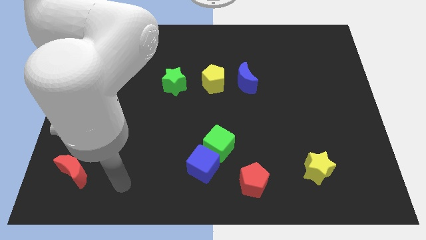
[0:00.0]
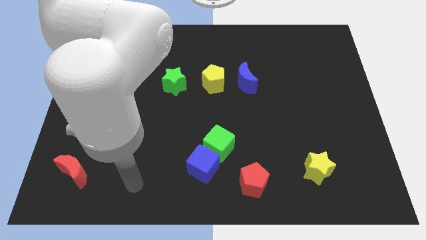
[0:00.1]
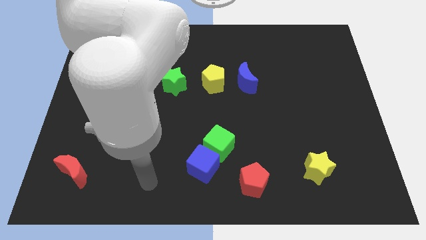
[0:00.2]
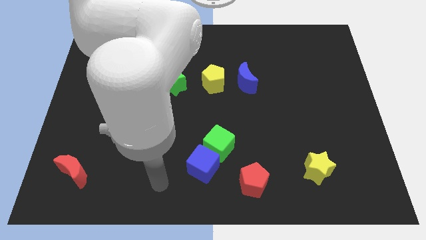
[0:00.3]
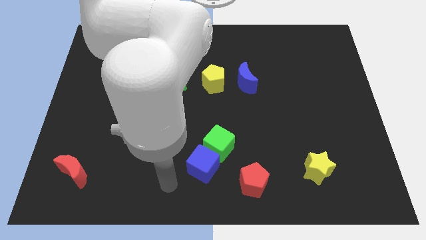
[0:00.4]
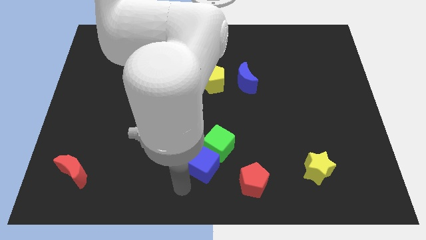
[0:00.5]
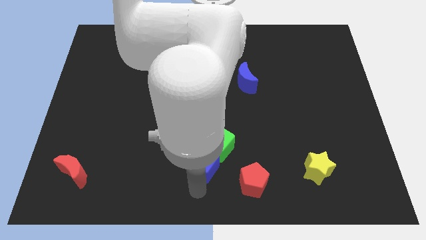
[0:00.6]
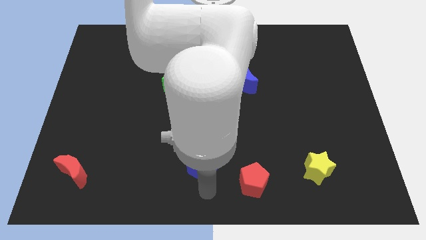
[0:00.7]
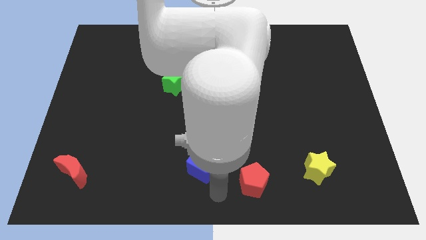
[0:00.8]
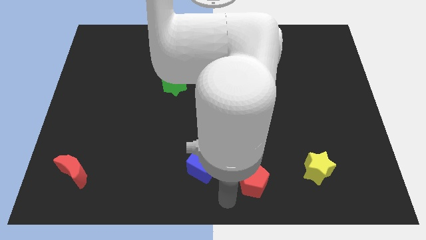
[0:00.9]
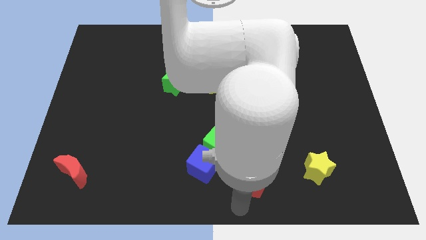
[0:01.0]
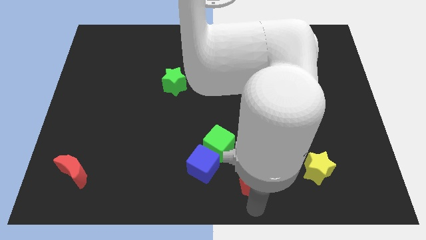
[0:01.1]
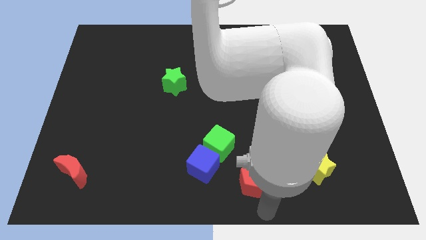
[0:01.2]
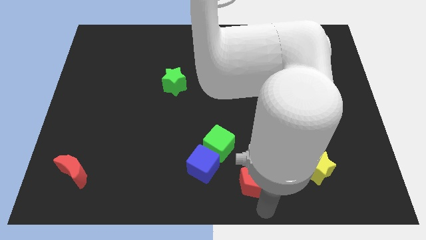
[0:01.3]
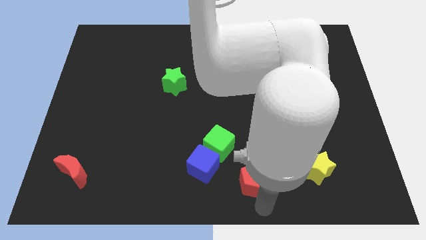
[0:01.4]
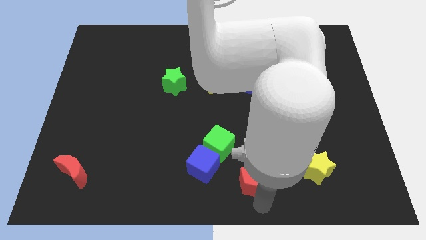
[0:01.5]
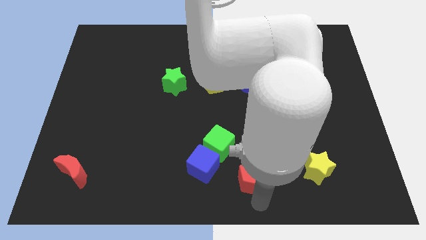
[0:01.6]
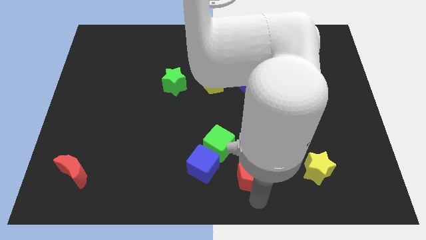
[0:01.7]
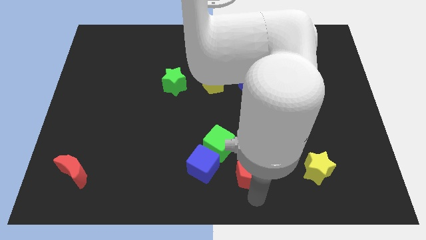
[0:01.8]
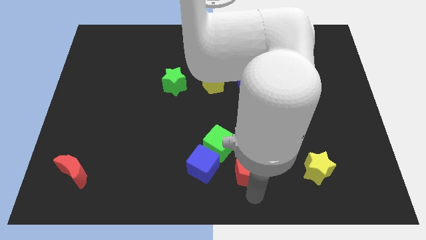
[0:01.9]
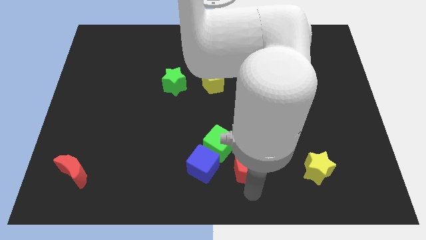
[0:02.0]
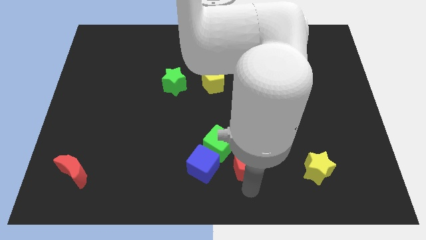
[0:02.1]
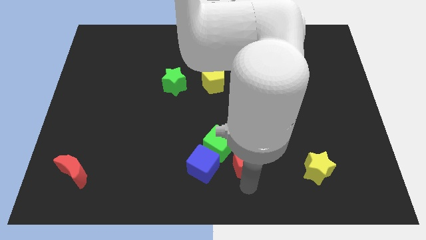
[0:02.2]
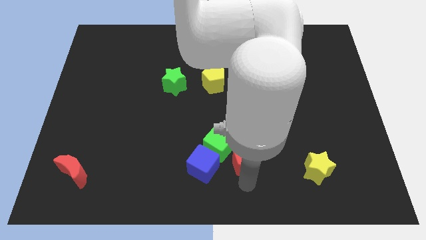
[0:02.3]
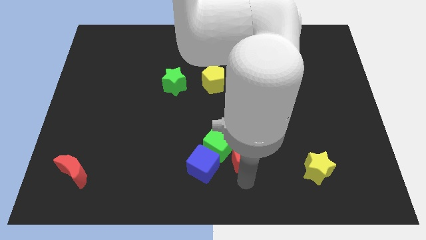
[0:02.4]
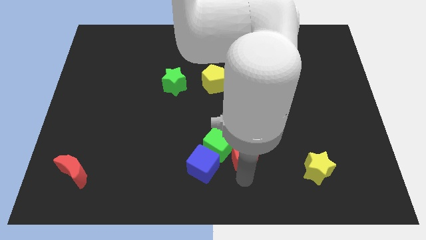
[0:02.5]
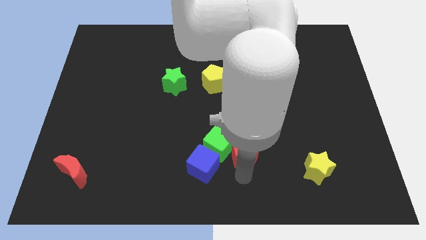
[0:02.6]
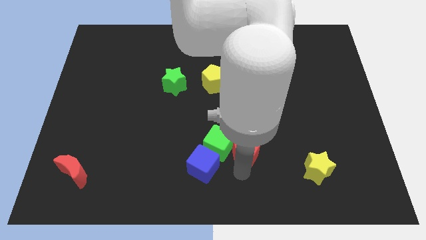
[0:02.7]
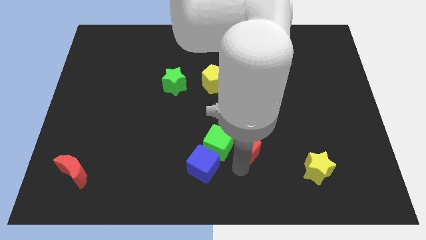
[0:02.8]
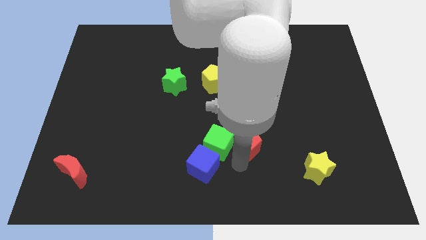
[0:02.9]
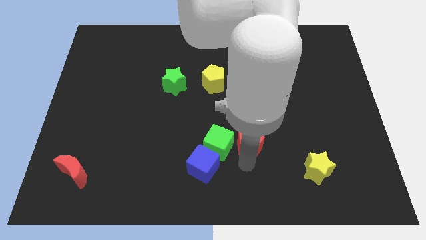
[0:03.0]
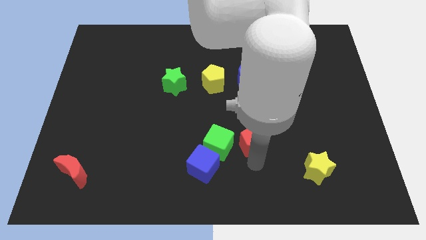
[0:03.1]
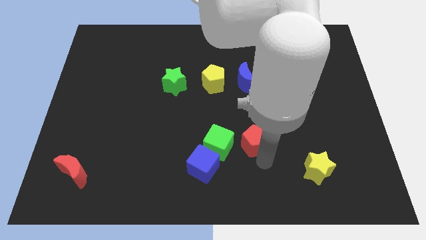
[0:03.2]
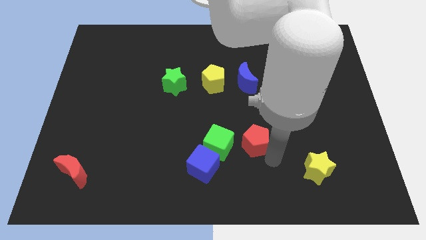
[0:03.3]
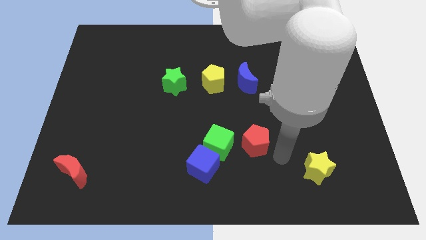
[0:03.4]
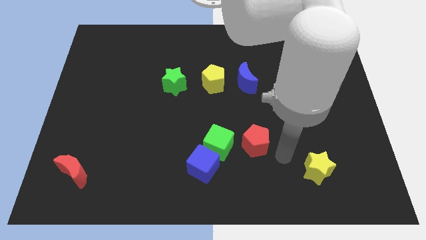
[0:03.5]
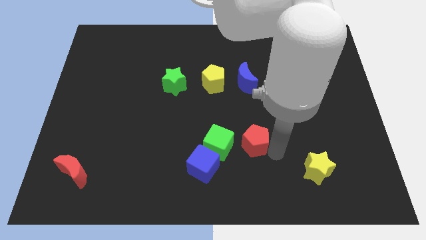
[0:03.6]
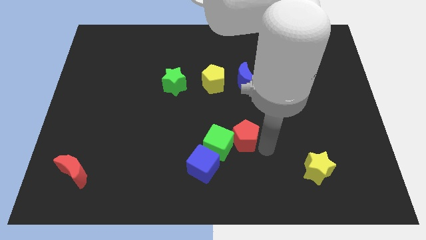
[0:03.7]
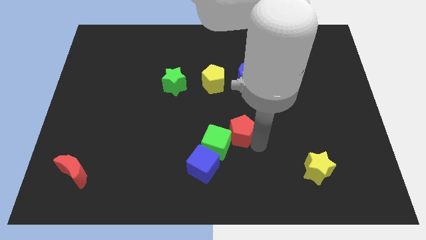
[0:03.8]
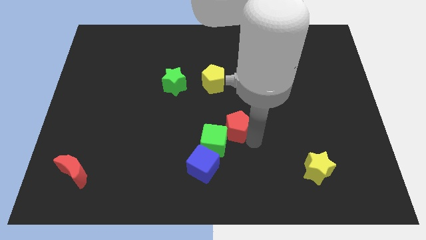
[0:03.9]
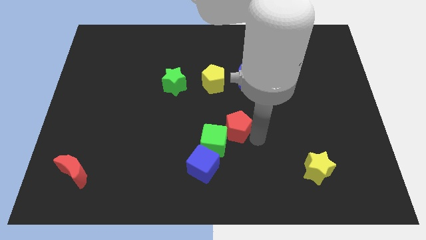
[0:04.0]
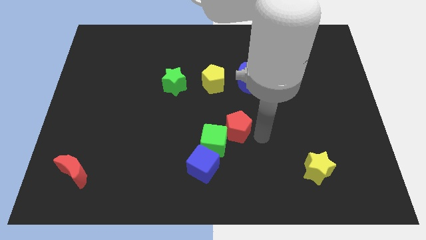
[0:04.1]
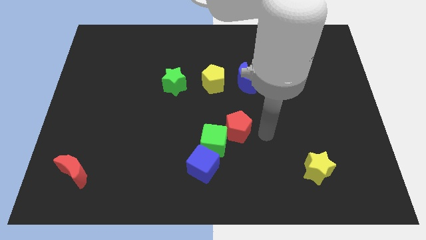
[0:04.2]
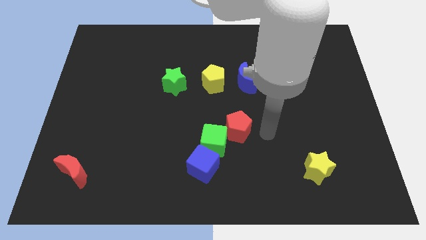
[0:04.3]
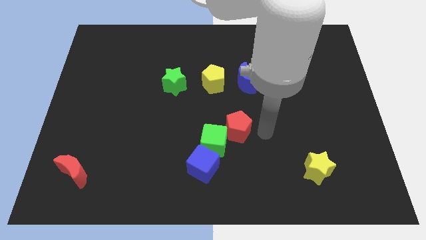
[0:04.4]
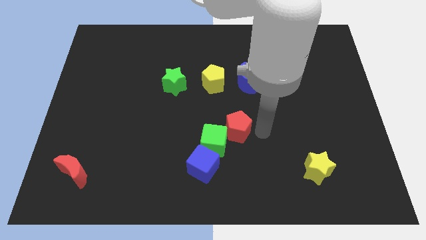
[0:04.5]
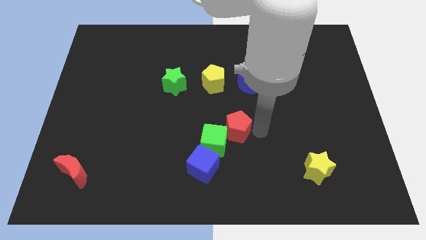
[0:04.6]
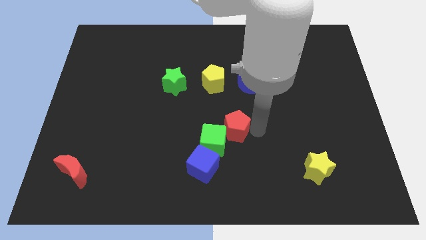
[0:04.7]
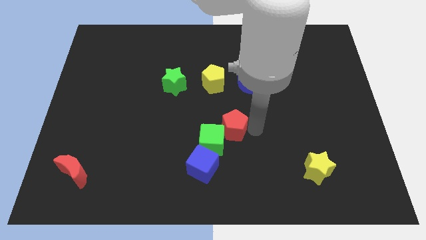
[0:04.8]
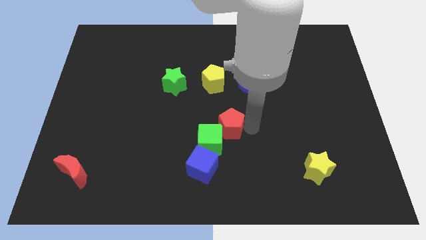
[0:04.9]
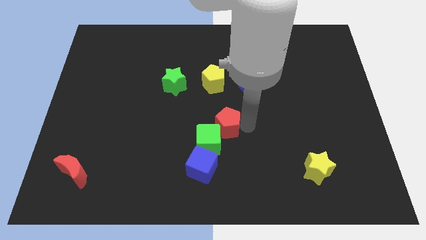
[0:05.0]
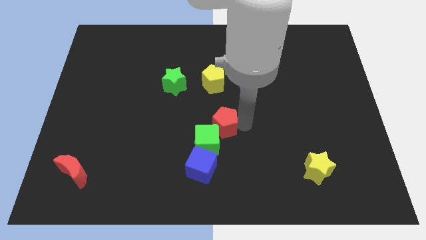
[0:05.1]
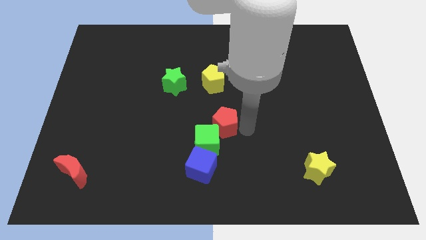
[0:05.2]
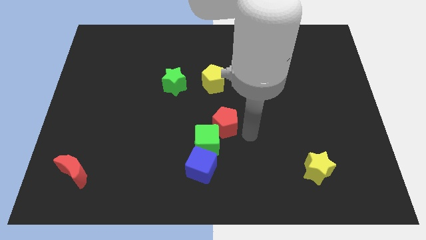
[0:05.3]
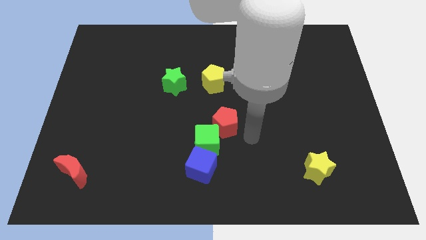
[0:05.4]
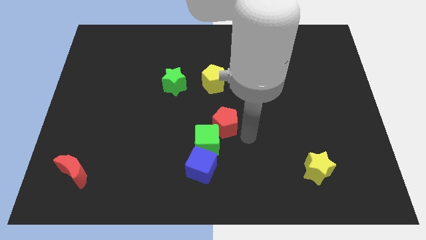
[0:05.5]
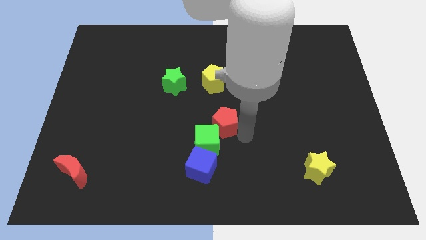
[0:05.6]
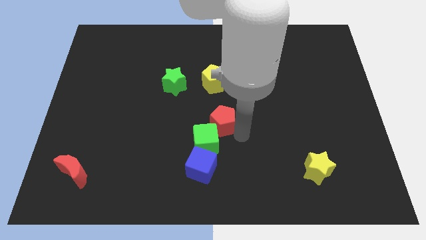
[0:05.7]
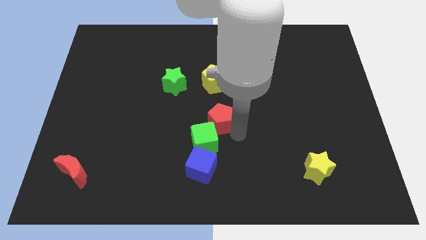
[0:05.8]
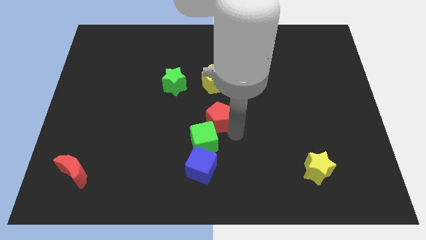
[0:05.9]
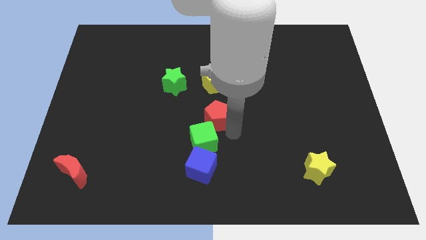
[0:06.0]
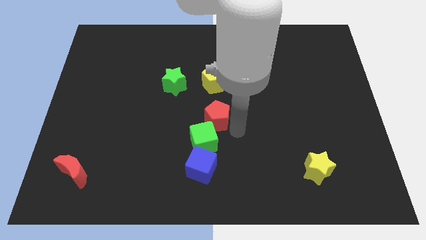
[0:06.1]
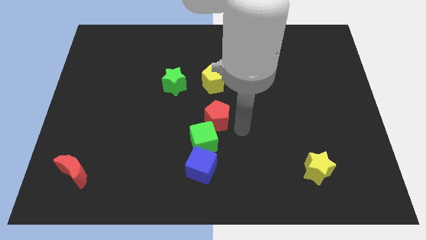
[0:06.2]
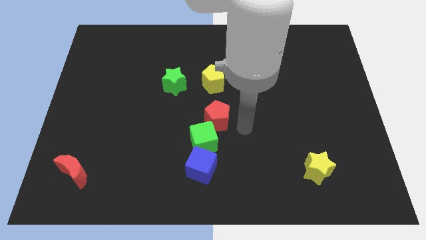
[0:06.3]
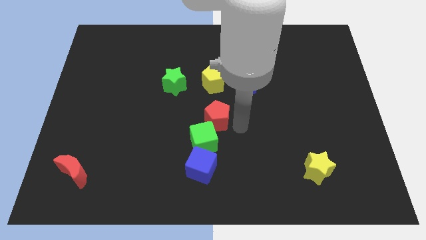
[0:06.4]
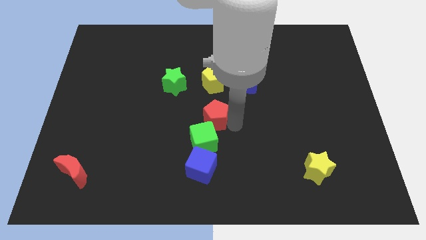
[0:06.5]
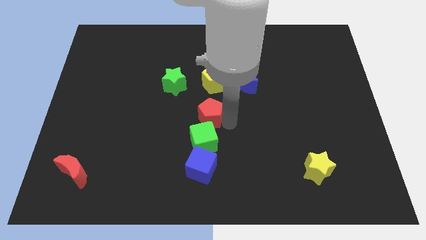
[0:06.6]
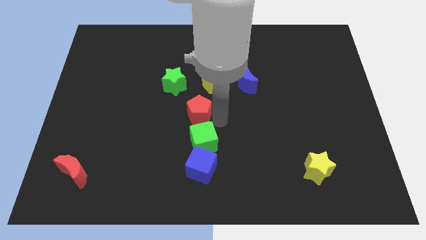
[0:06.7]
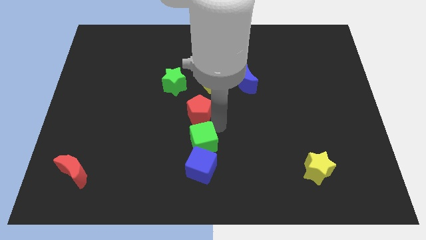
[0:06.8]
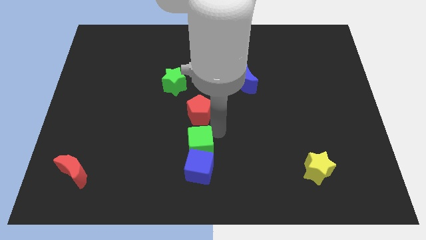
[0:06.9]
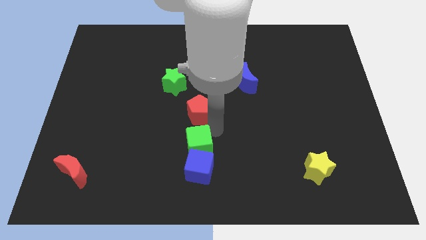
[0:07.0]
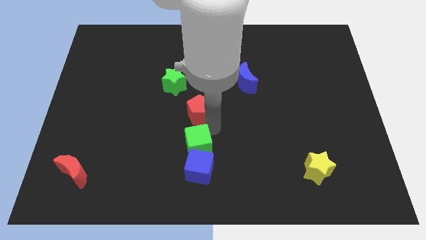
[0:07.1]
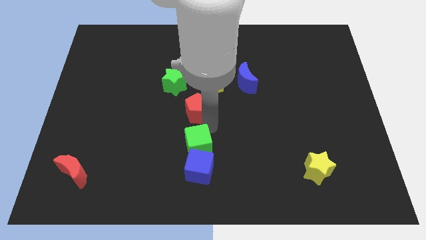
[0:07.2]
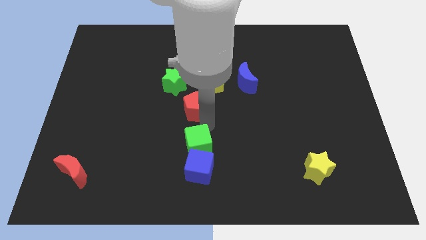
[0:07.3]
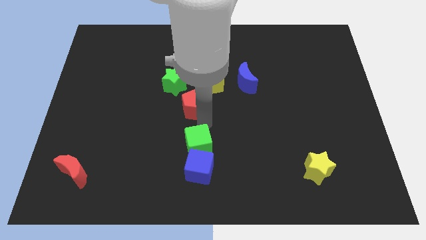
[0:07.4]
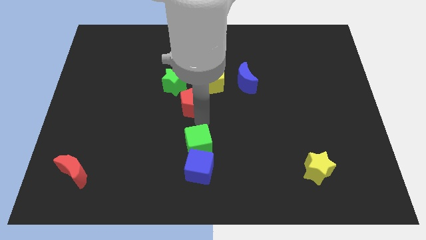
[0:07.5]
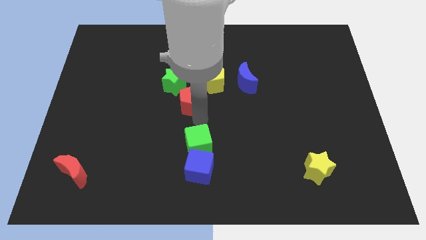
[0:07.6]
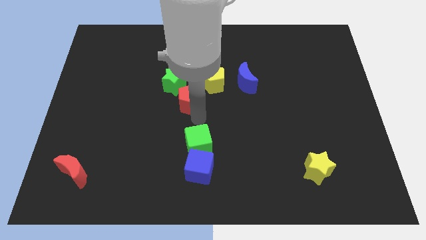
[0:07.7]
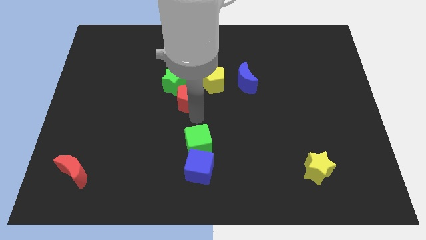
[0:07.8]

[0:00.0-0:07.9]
slide the red pentagon close to the green star

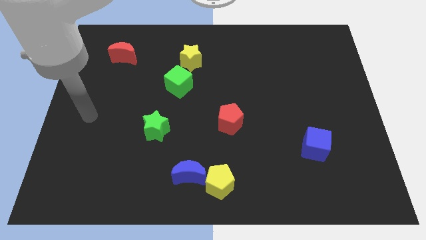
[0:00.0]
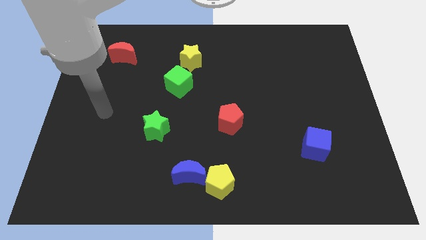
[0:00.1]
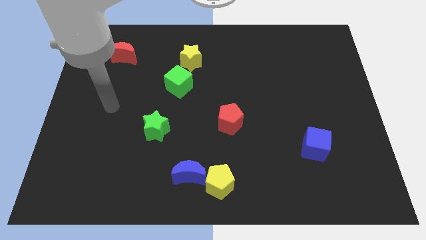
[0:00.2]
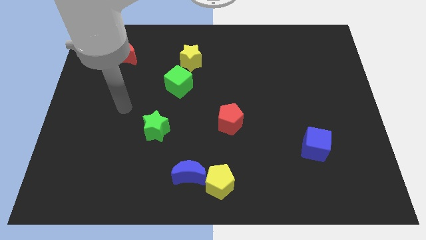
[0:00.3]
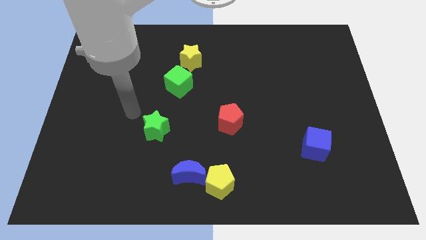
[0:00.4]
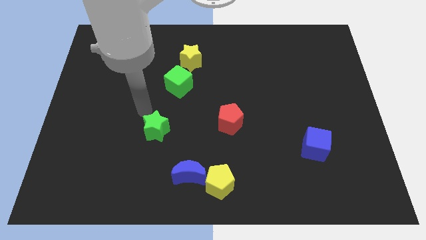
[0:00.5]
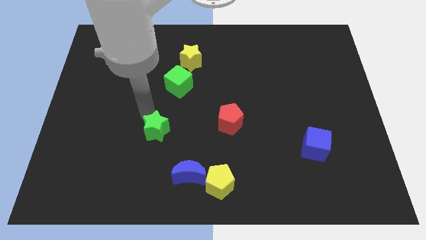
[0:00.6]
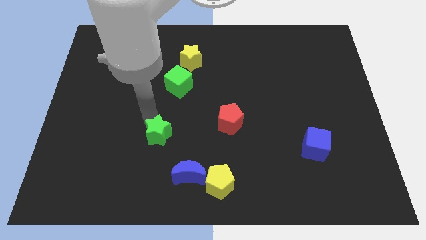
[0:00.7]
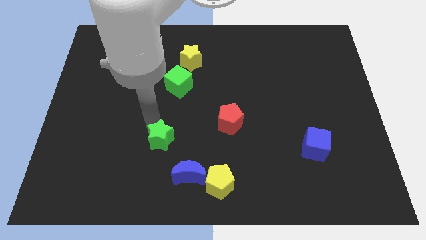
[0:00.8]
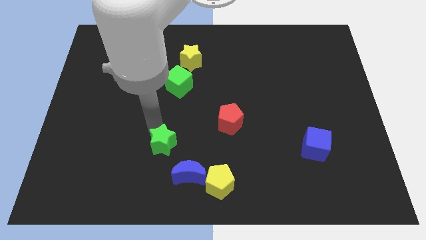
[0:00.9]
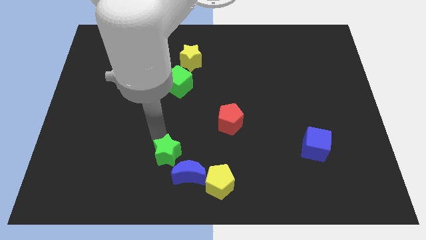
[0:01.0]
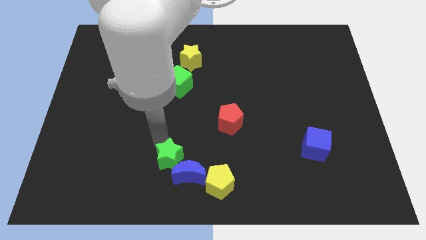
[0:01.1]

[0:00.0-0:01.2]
push the green star towards the blue moon
